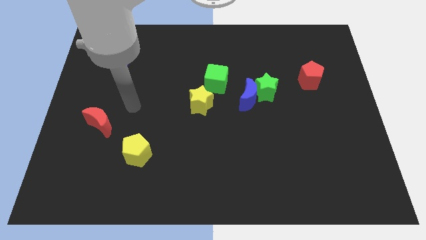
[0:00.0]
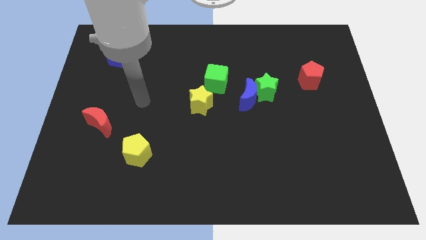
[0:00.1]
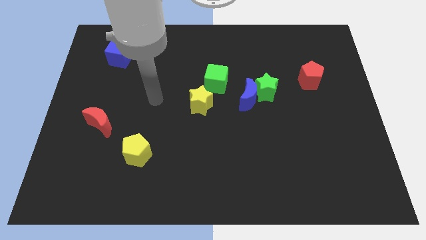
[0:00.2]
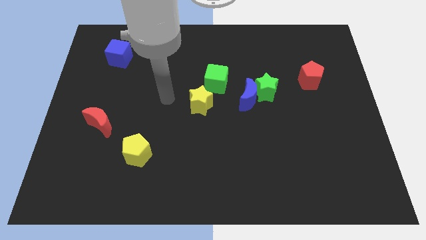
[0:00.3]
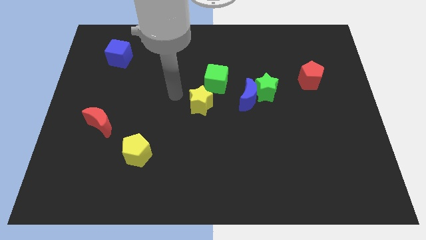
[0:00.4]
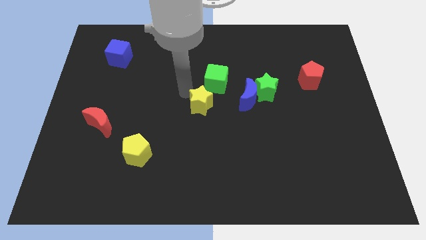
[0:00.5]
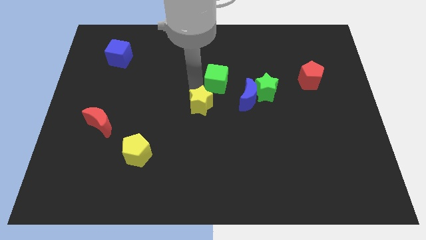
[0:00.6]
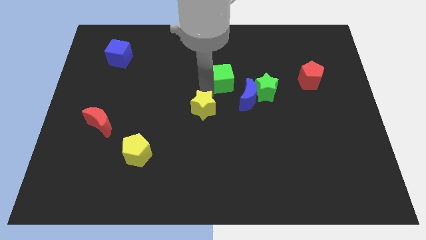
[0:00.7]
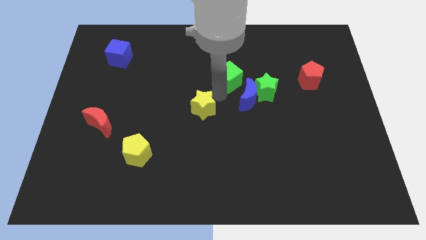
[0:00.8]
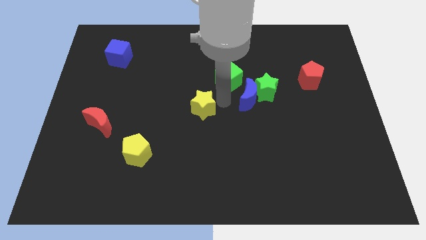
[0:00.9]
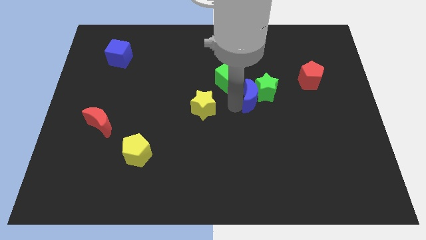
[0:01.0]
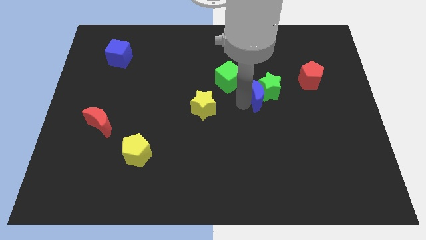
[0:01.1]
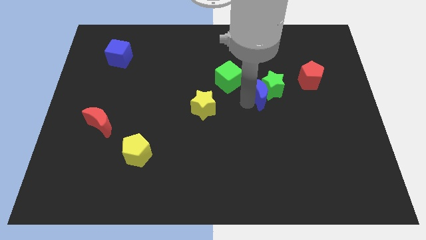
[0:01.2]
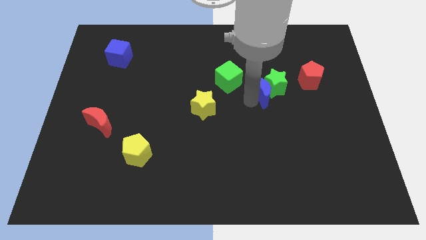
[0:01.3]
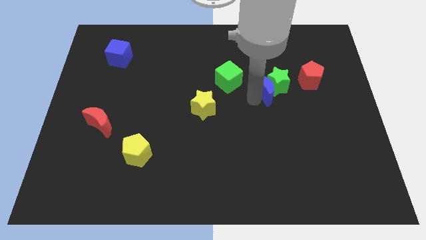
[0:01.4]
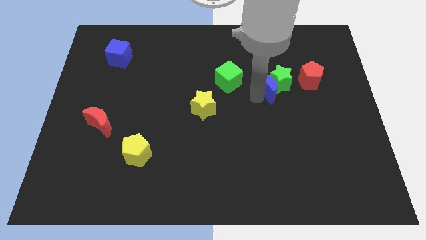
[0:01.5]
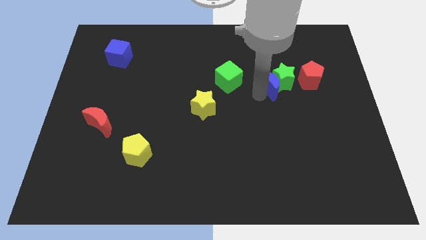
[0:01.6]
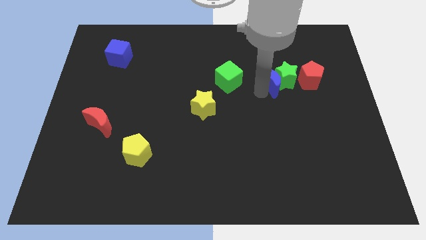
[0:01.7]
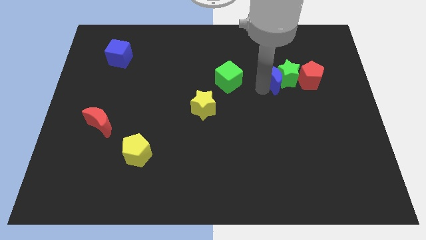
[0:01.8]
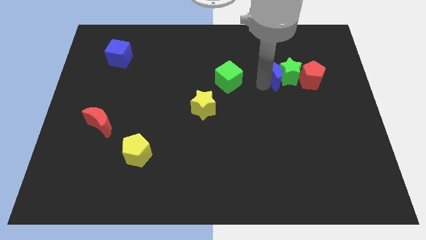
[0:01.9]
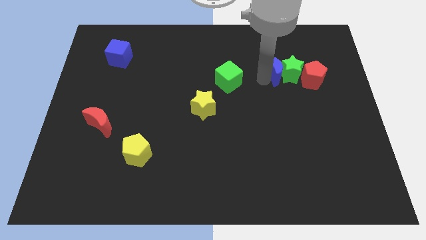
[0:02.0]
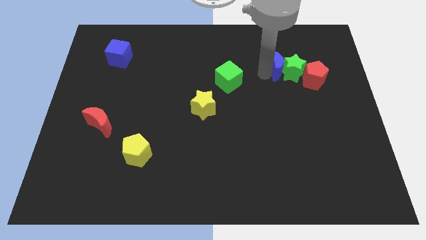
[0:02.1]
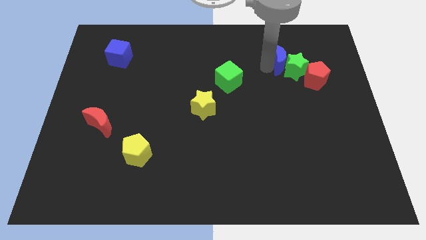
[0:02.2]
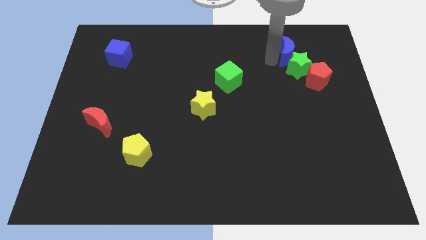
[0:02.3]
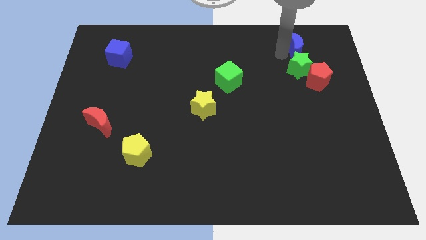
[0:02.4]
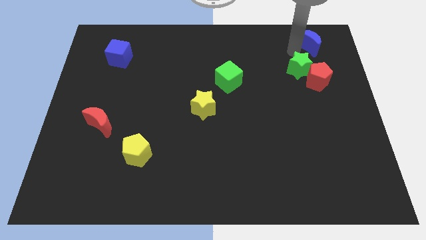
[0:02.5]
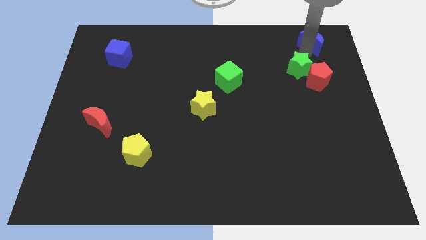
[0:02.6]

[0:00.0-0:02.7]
pull the green star apart from the blue moon

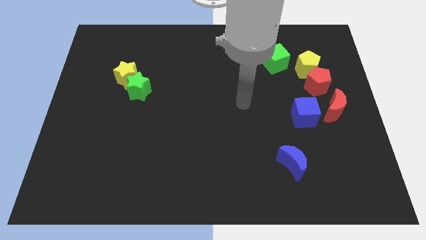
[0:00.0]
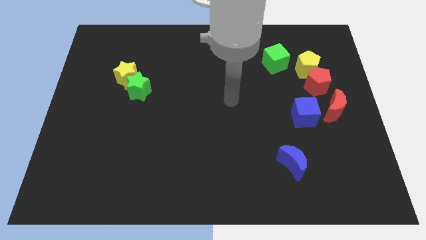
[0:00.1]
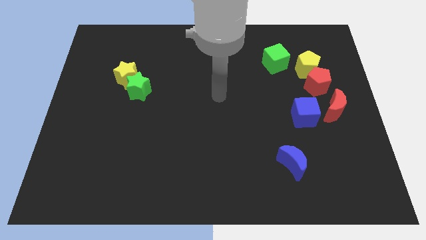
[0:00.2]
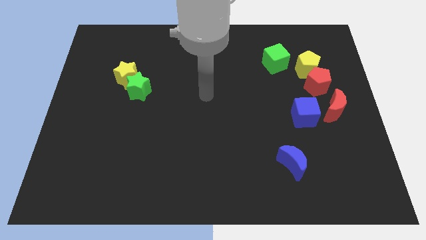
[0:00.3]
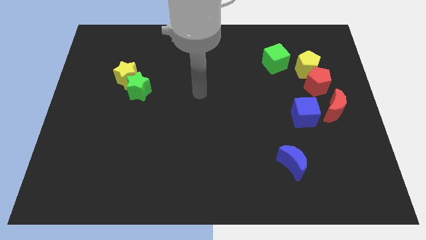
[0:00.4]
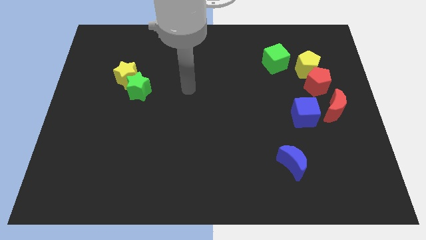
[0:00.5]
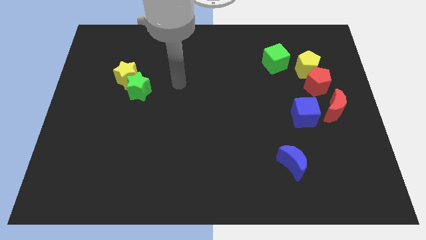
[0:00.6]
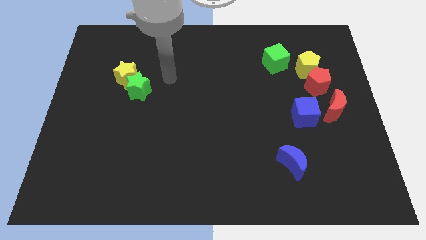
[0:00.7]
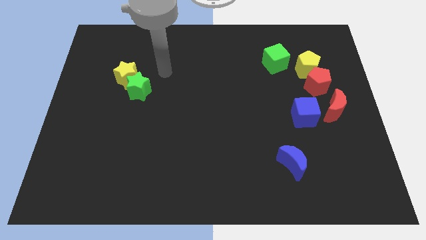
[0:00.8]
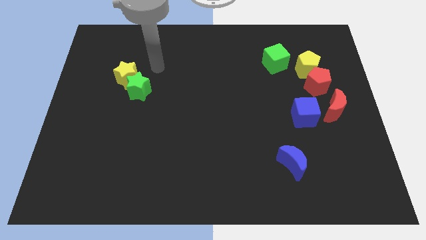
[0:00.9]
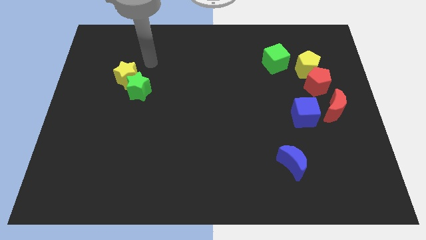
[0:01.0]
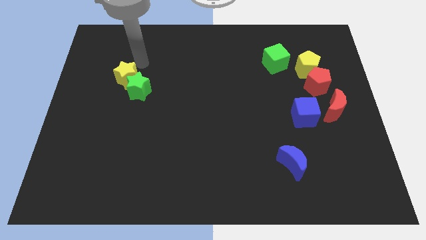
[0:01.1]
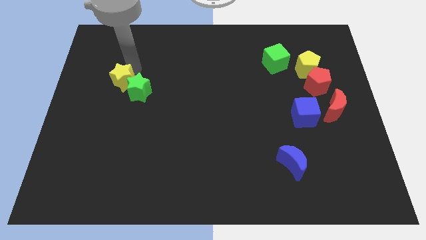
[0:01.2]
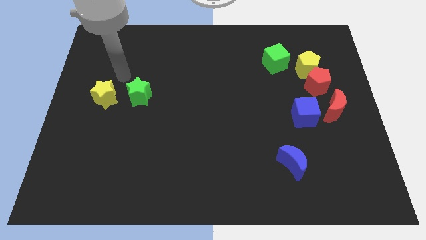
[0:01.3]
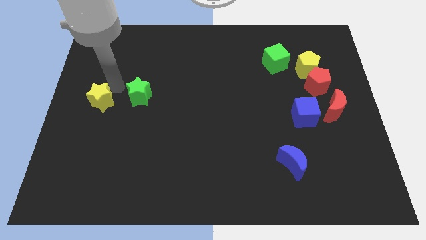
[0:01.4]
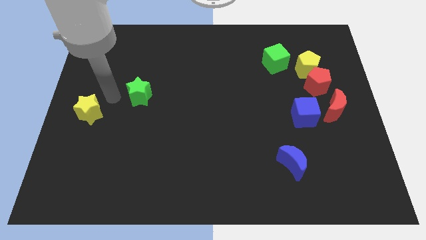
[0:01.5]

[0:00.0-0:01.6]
move the green star away from the yellow star

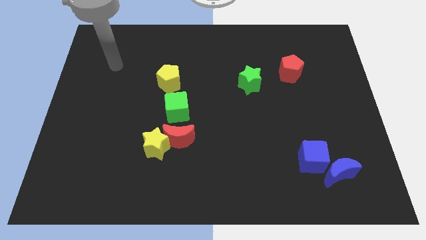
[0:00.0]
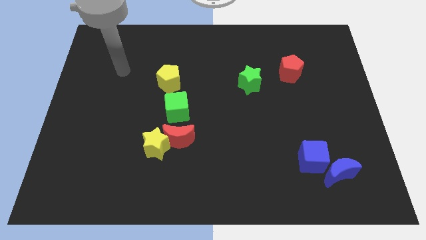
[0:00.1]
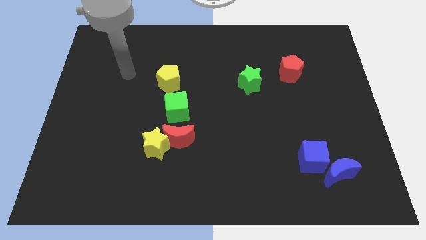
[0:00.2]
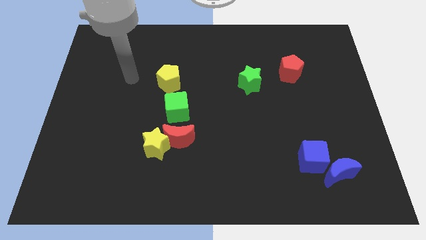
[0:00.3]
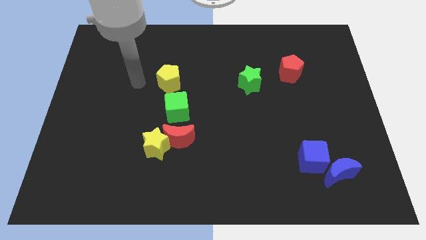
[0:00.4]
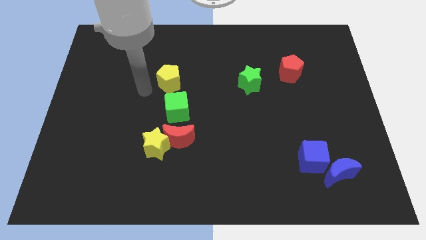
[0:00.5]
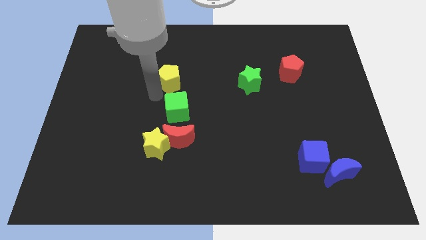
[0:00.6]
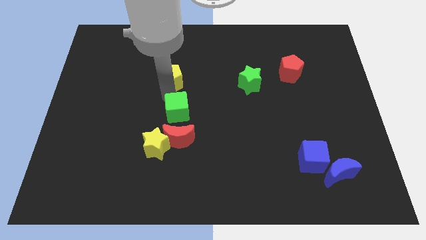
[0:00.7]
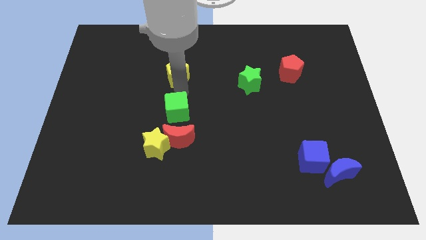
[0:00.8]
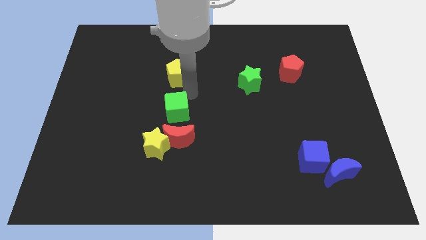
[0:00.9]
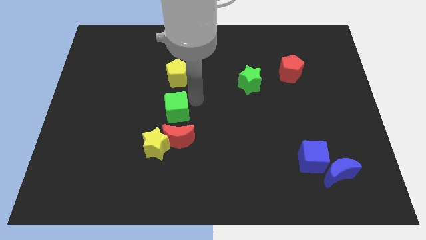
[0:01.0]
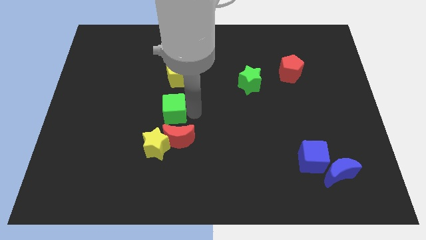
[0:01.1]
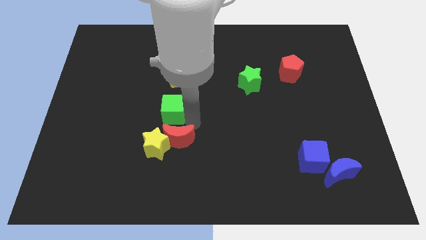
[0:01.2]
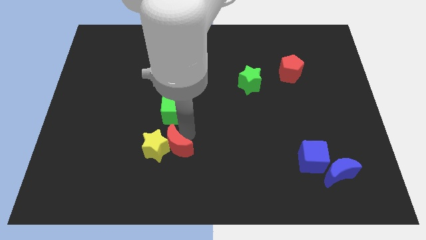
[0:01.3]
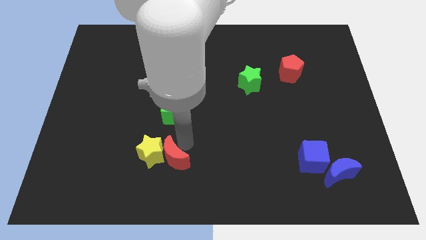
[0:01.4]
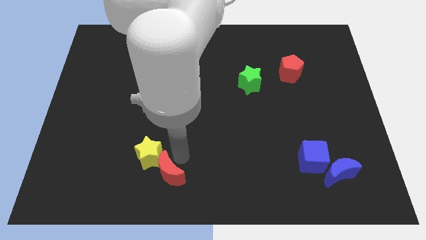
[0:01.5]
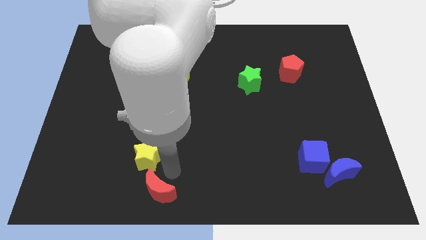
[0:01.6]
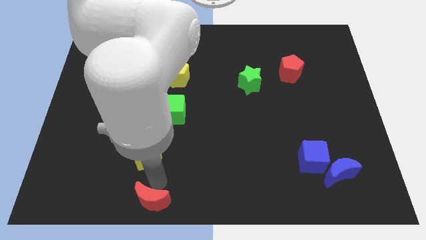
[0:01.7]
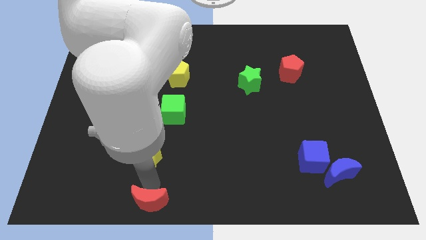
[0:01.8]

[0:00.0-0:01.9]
pull the yellow star apart from the red moon

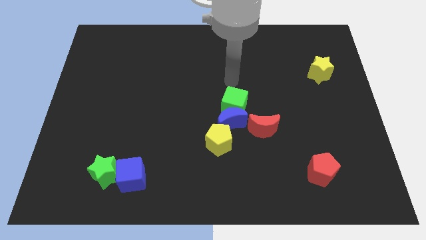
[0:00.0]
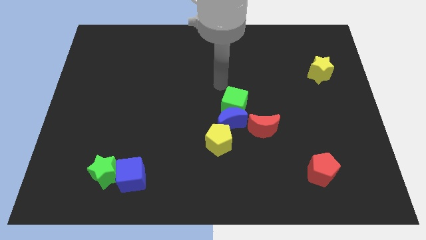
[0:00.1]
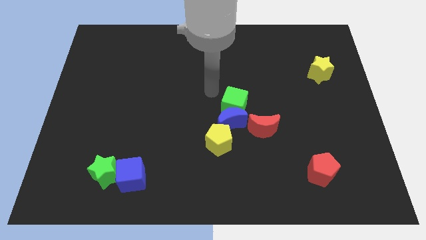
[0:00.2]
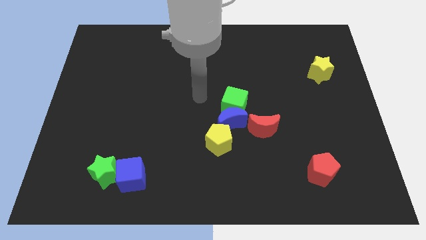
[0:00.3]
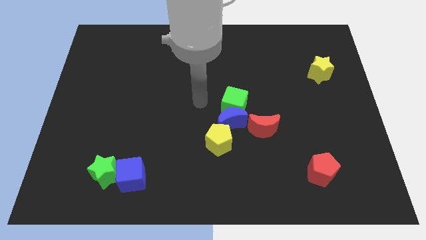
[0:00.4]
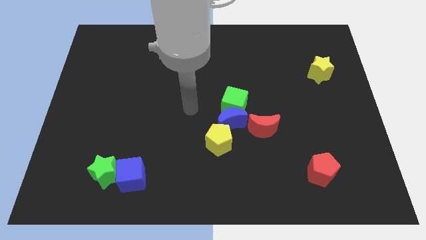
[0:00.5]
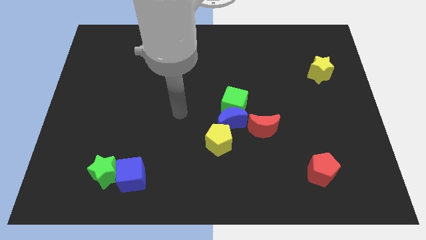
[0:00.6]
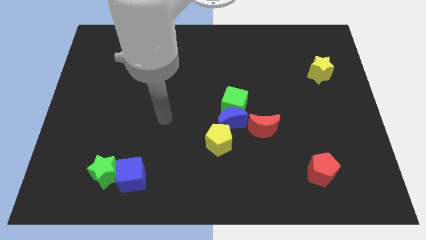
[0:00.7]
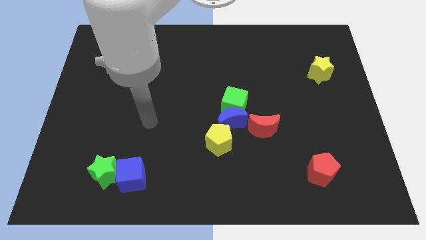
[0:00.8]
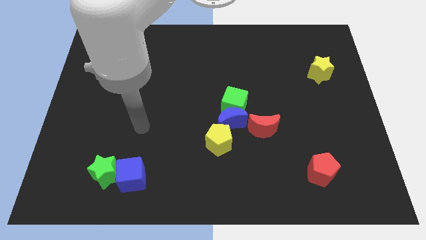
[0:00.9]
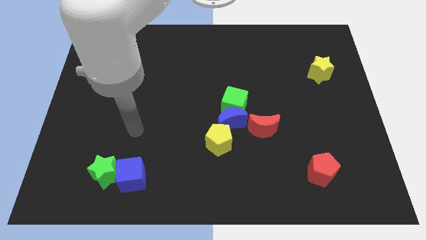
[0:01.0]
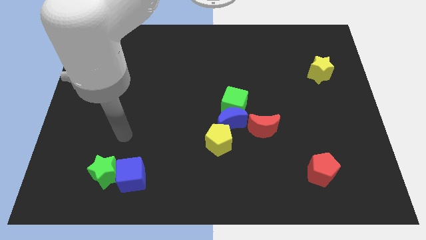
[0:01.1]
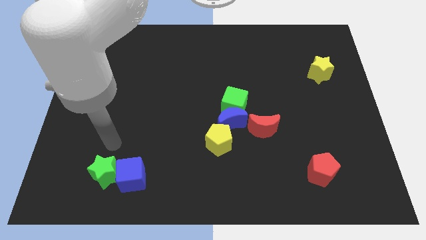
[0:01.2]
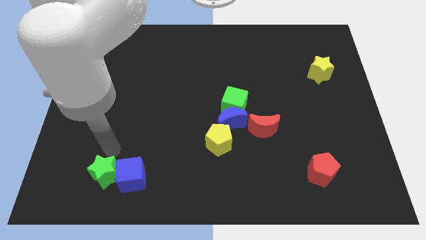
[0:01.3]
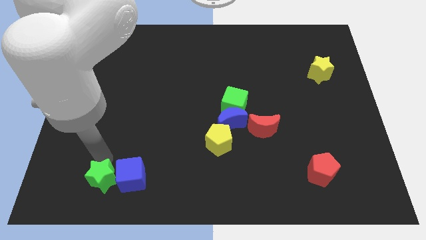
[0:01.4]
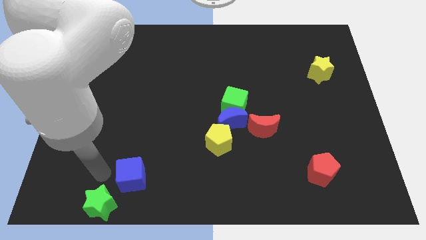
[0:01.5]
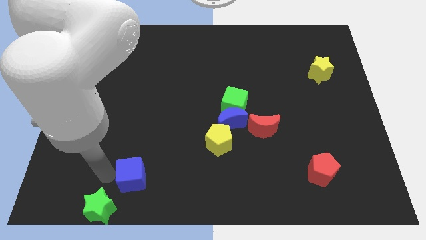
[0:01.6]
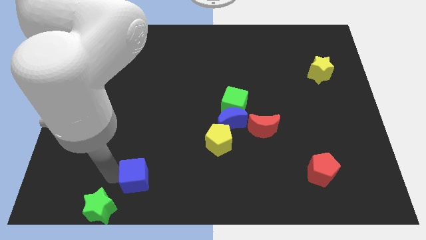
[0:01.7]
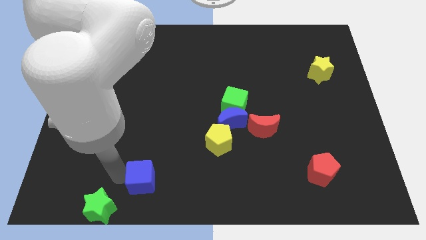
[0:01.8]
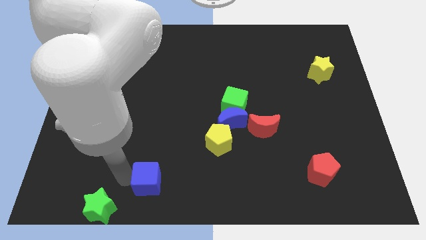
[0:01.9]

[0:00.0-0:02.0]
pull the blue cube apart from the green star

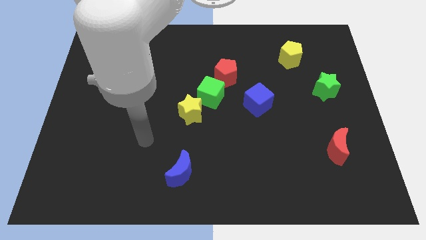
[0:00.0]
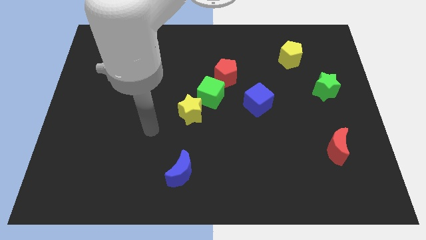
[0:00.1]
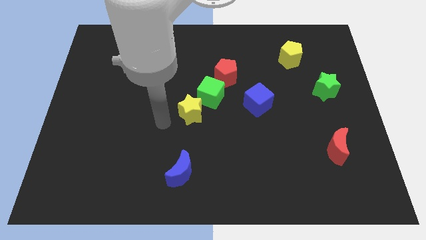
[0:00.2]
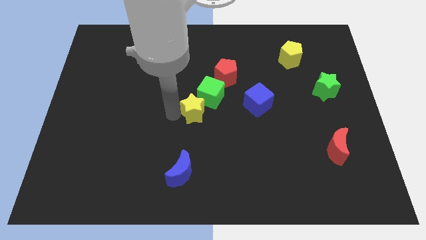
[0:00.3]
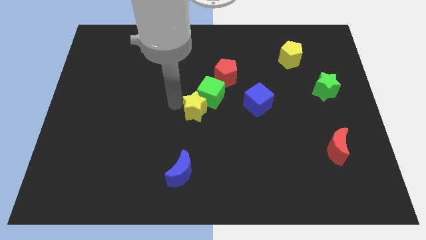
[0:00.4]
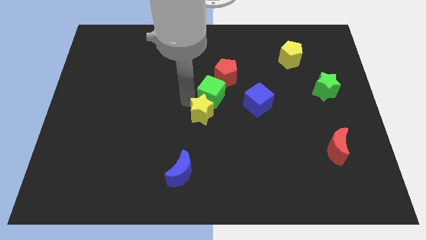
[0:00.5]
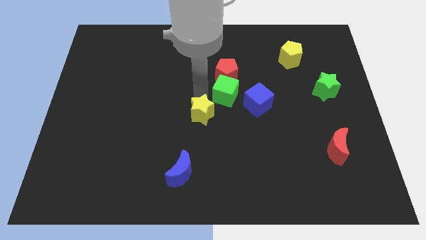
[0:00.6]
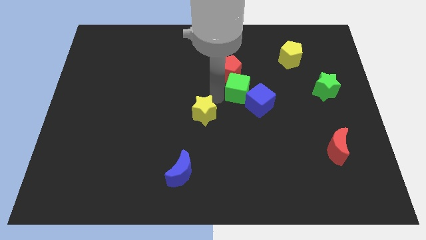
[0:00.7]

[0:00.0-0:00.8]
separate the yellow star from the green cube

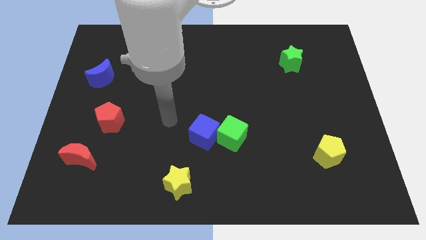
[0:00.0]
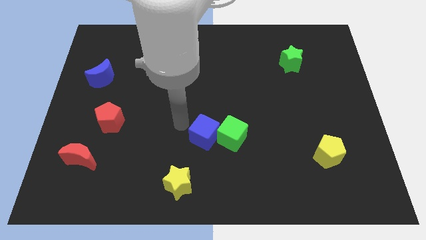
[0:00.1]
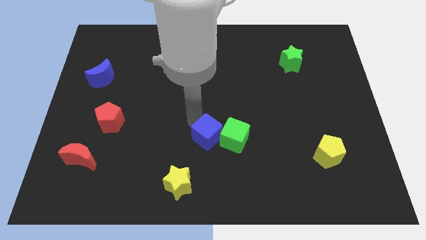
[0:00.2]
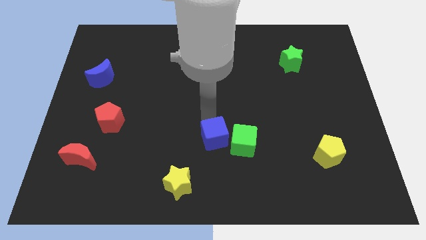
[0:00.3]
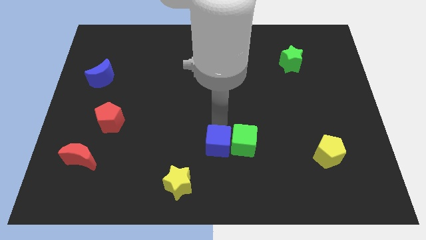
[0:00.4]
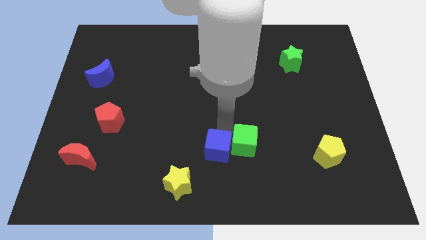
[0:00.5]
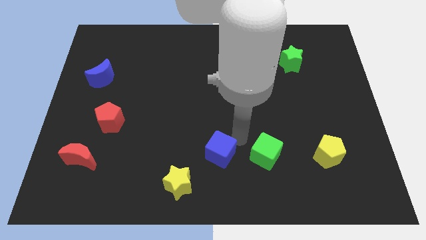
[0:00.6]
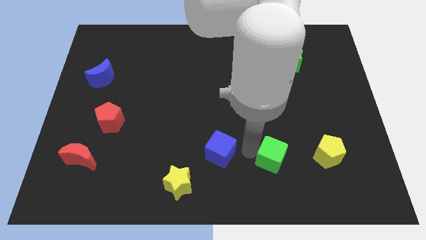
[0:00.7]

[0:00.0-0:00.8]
separate the blue cube from the green cube
